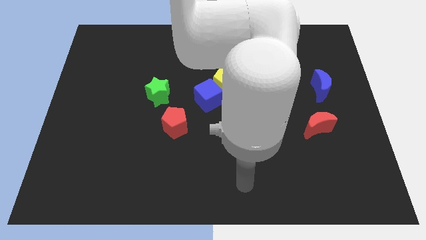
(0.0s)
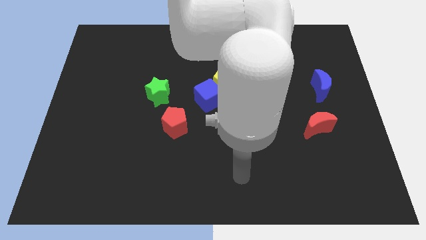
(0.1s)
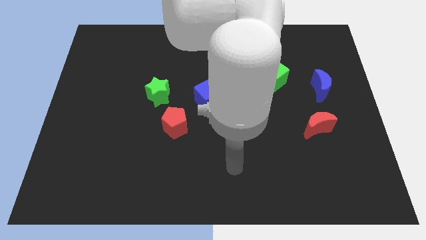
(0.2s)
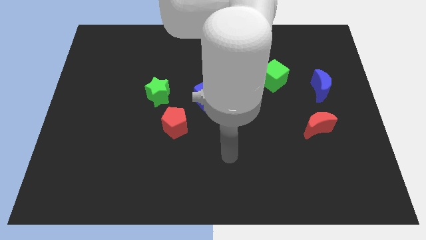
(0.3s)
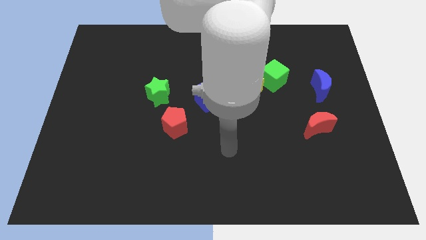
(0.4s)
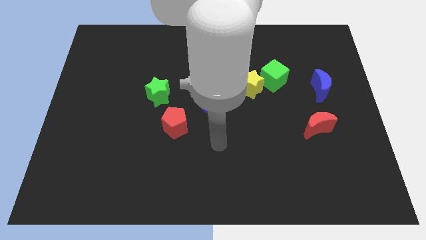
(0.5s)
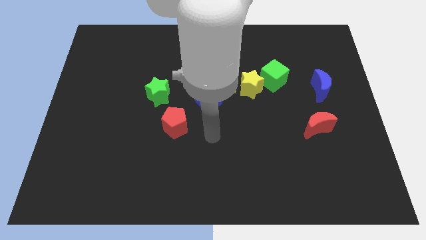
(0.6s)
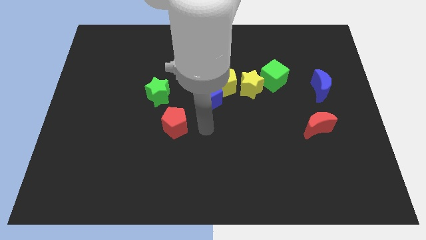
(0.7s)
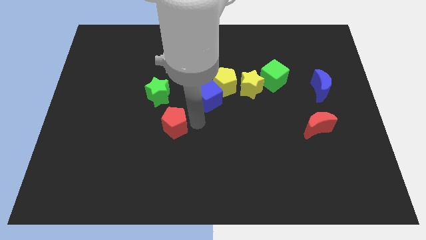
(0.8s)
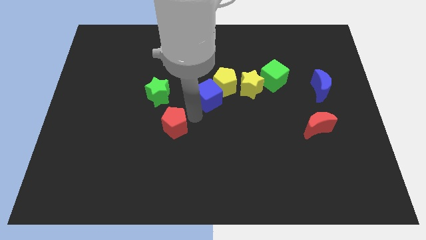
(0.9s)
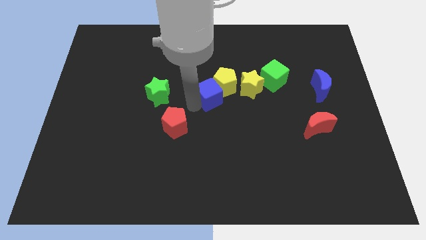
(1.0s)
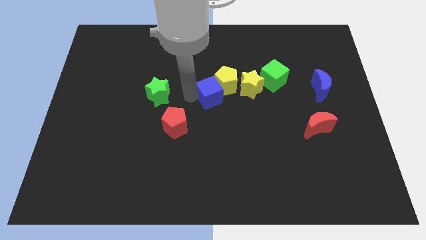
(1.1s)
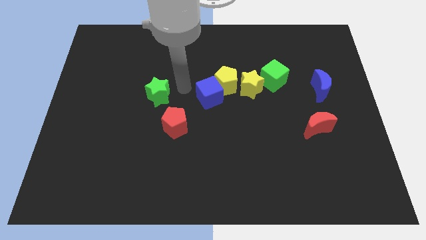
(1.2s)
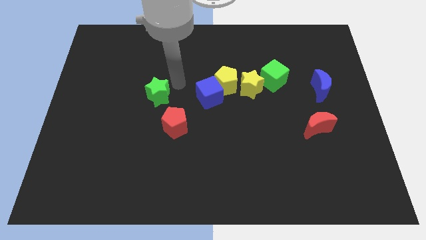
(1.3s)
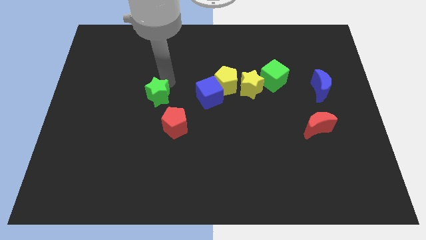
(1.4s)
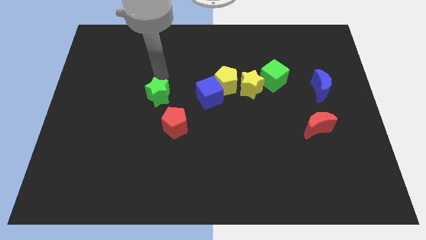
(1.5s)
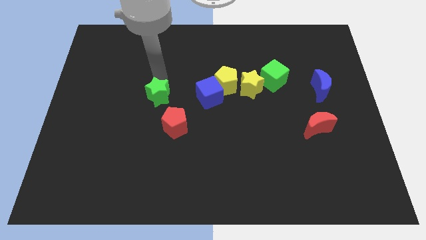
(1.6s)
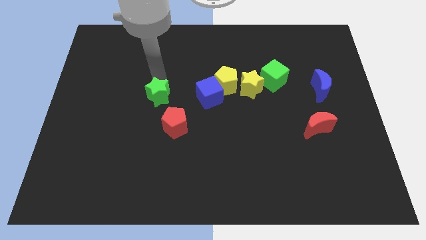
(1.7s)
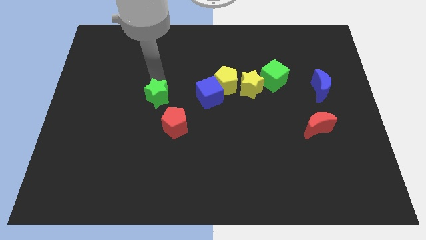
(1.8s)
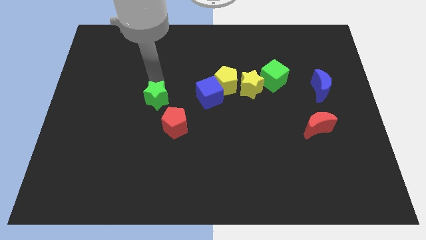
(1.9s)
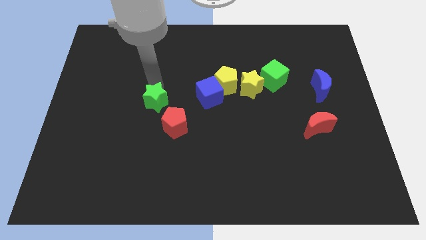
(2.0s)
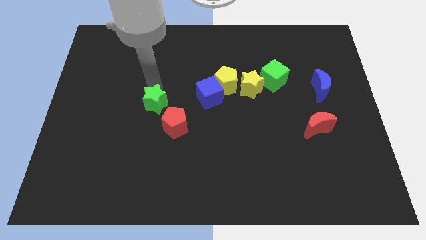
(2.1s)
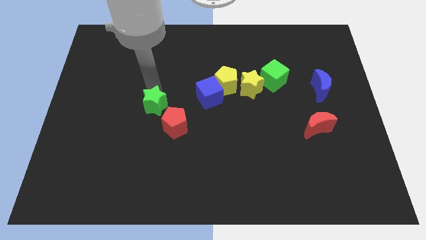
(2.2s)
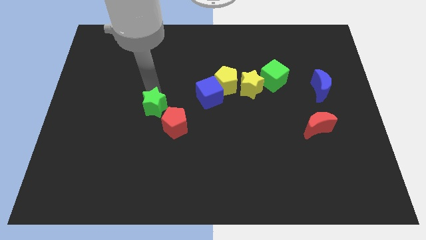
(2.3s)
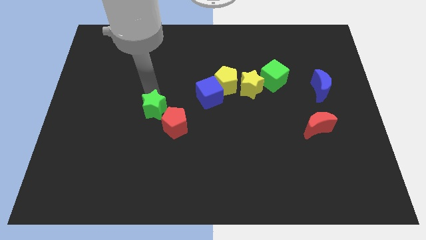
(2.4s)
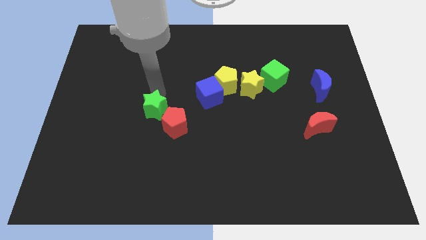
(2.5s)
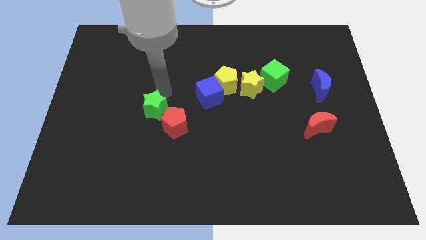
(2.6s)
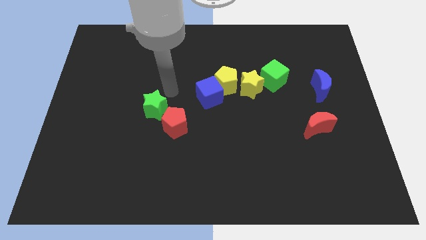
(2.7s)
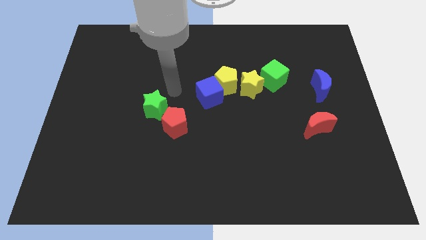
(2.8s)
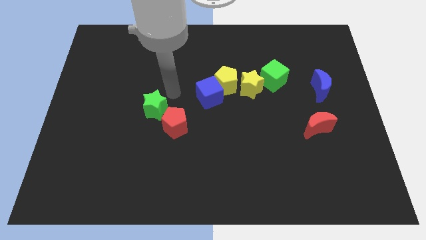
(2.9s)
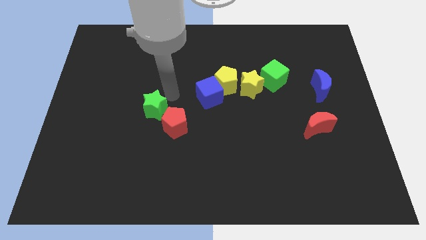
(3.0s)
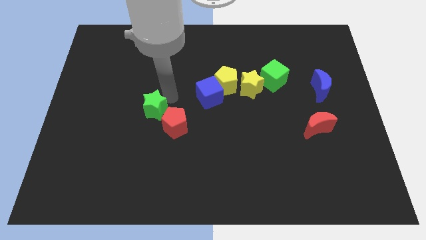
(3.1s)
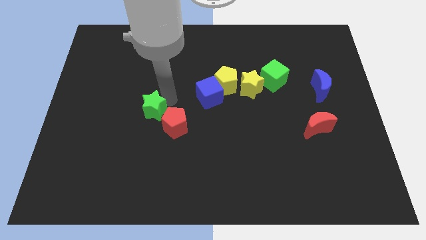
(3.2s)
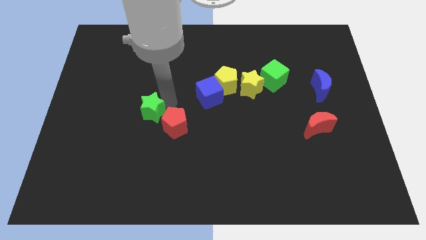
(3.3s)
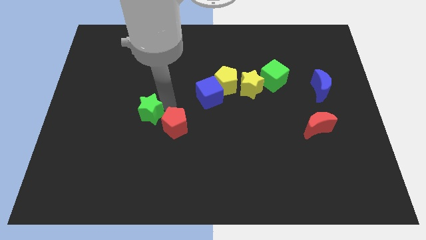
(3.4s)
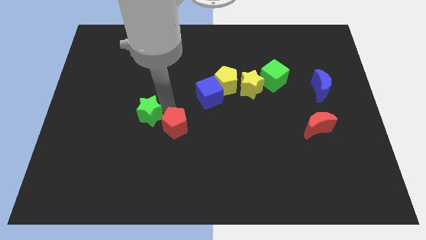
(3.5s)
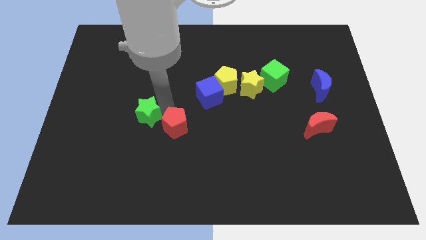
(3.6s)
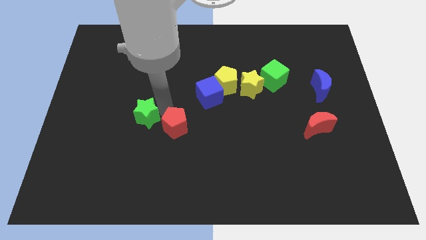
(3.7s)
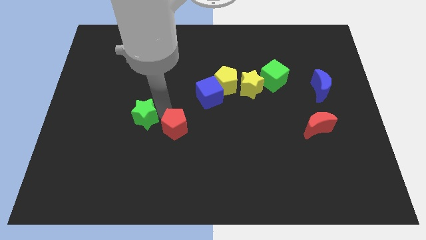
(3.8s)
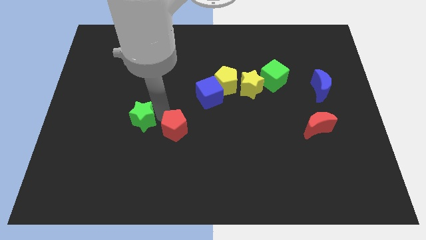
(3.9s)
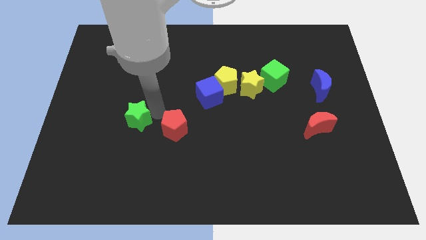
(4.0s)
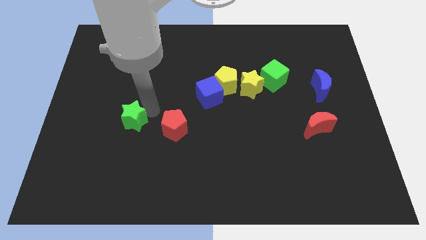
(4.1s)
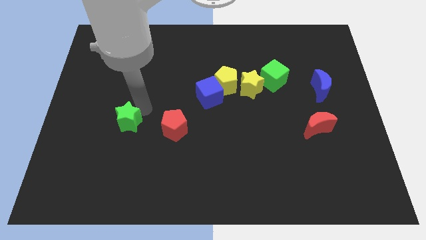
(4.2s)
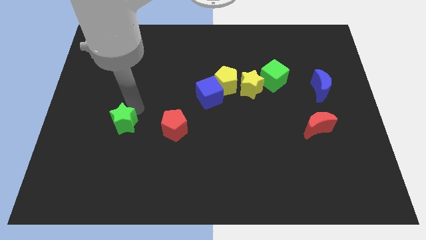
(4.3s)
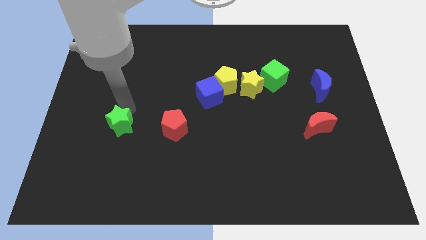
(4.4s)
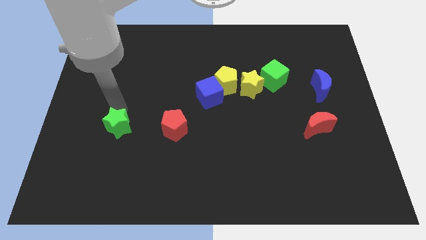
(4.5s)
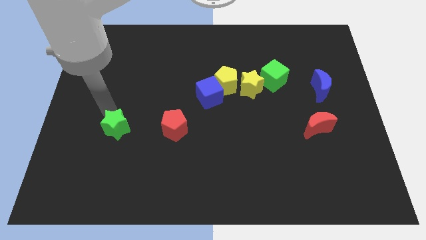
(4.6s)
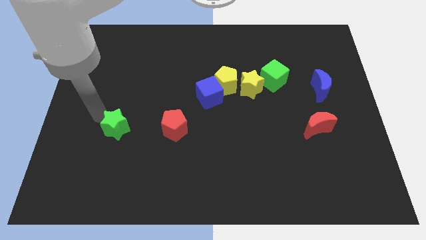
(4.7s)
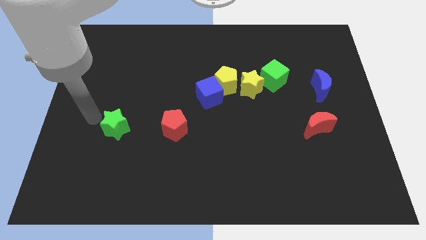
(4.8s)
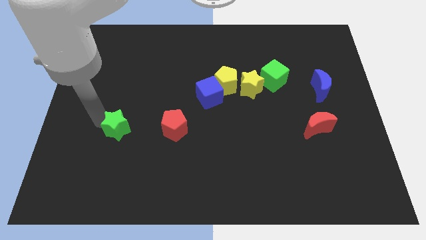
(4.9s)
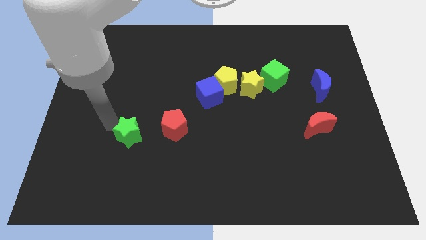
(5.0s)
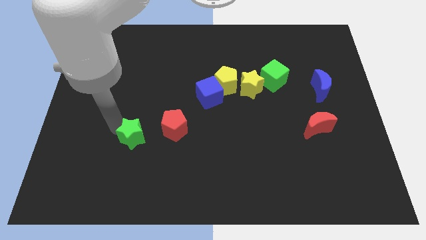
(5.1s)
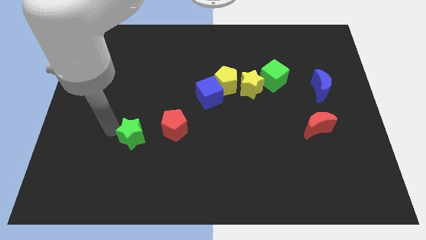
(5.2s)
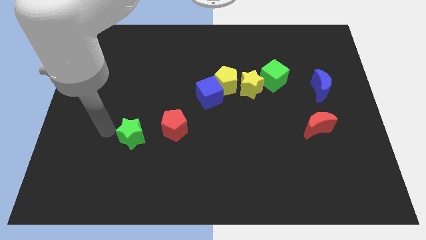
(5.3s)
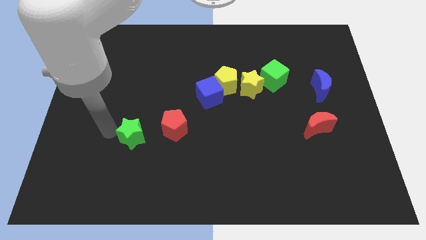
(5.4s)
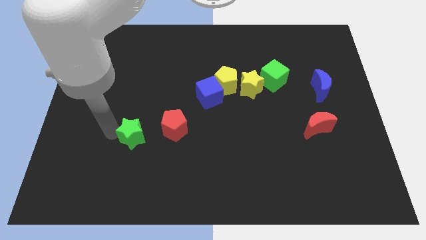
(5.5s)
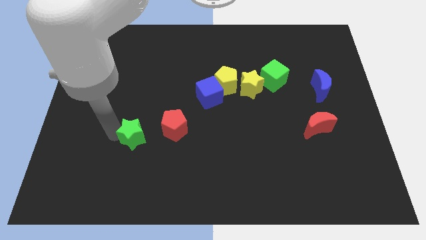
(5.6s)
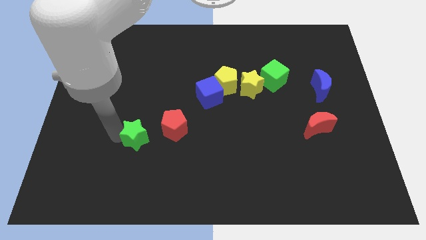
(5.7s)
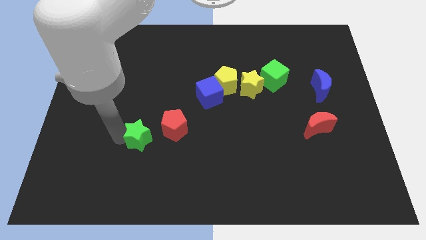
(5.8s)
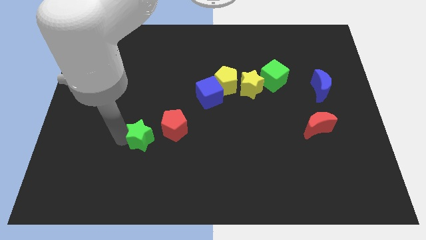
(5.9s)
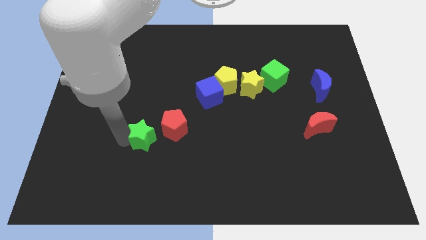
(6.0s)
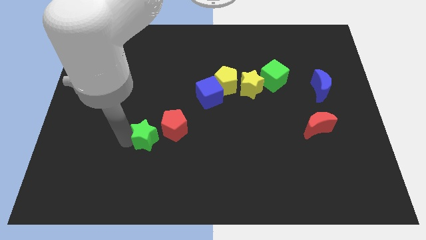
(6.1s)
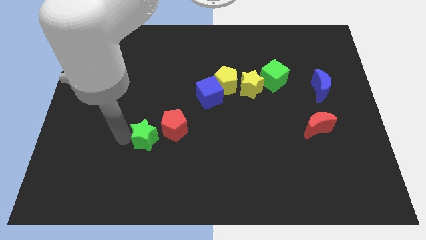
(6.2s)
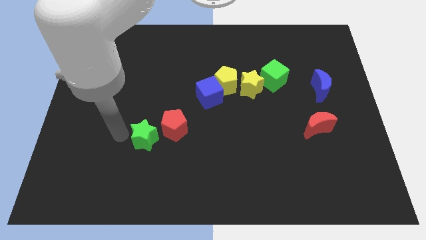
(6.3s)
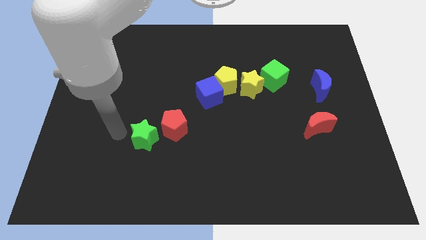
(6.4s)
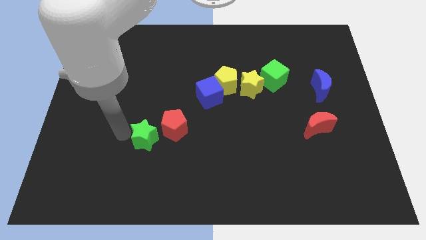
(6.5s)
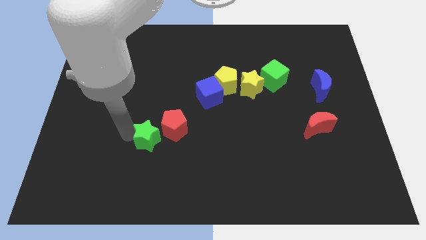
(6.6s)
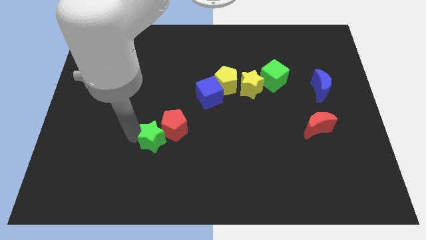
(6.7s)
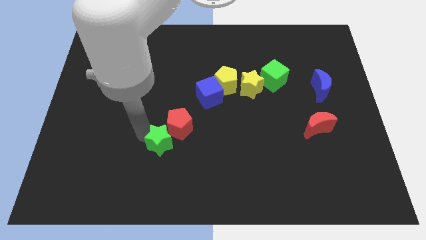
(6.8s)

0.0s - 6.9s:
put the green star to the bottom side of the red pentagon

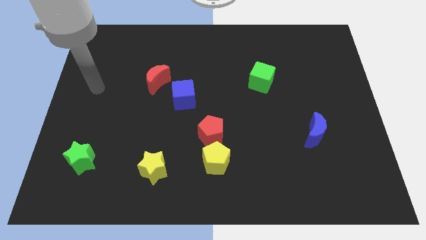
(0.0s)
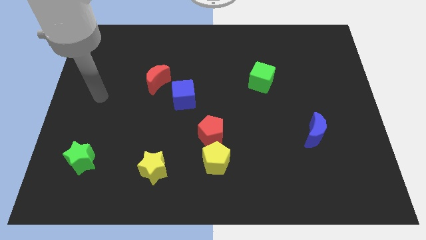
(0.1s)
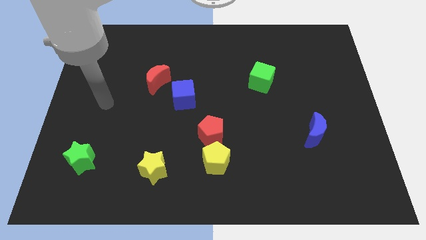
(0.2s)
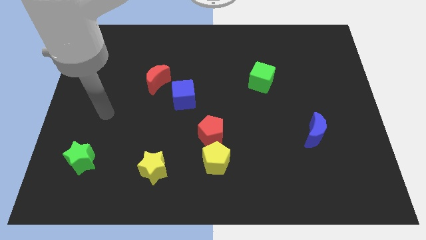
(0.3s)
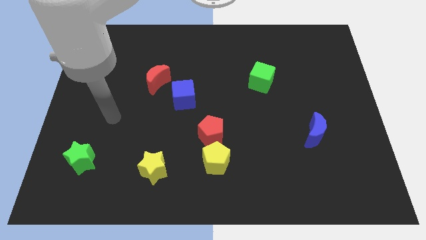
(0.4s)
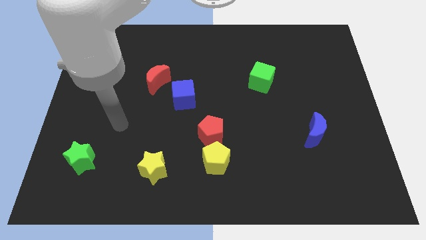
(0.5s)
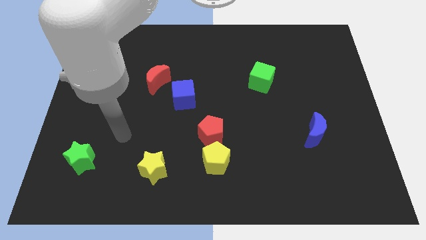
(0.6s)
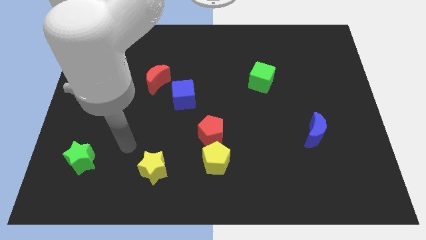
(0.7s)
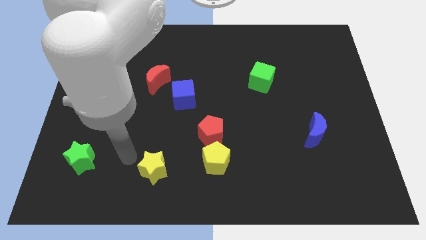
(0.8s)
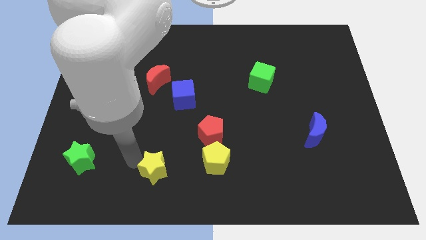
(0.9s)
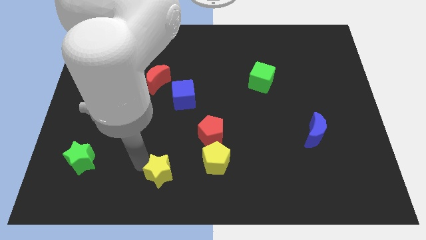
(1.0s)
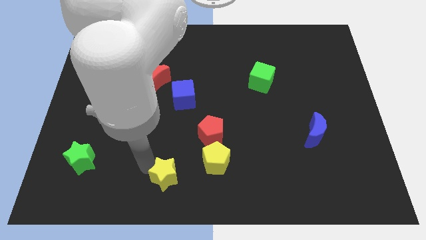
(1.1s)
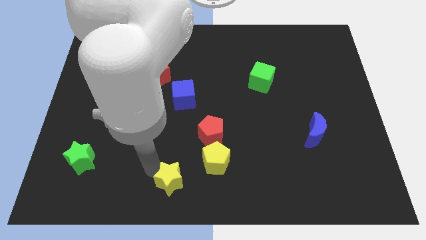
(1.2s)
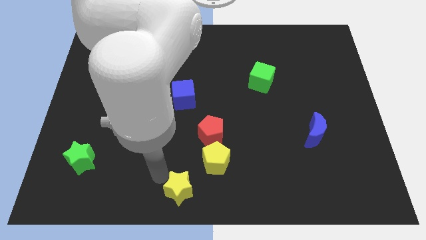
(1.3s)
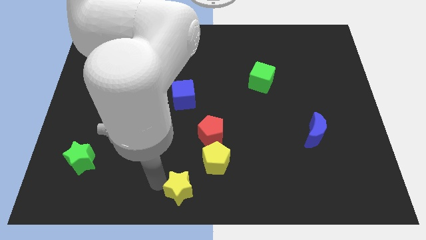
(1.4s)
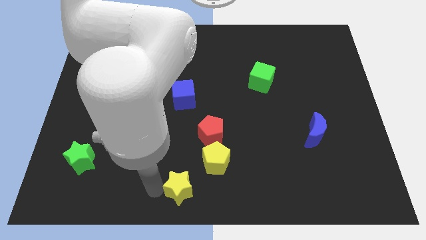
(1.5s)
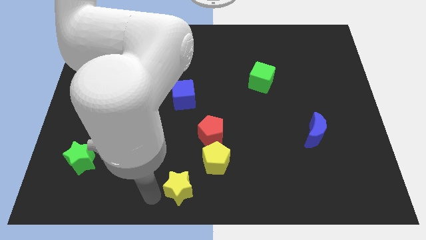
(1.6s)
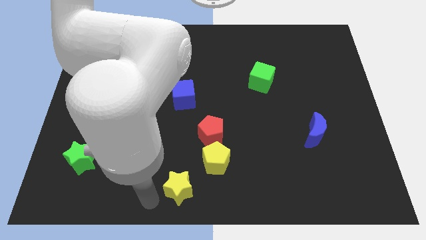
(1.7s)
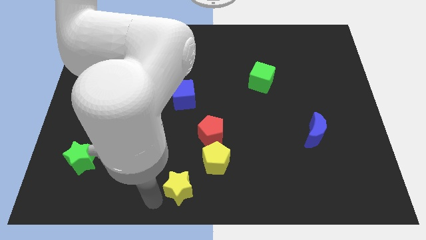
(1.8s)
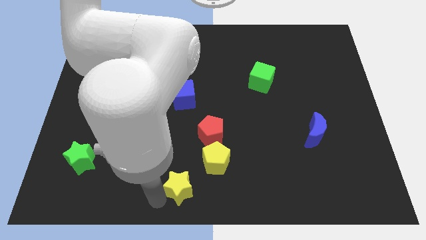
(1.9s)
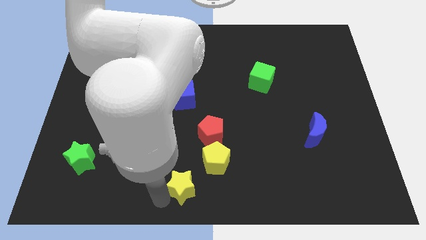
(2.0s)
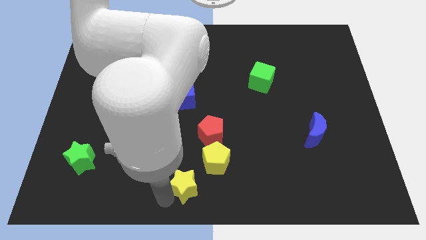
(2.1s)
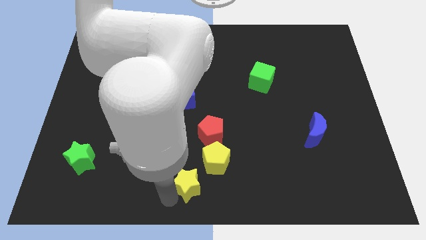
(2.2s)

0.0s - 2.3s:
slide the yellow star to the bottom of the red pentagon
